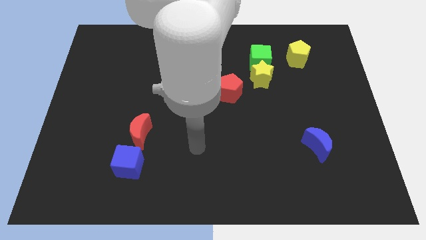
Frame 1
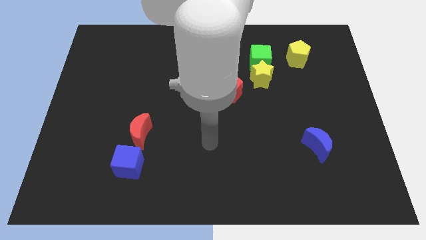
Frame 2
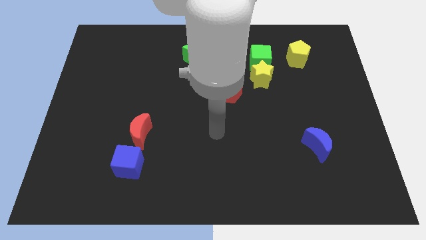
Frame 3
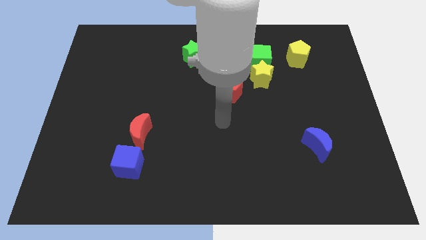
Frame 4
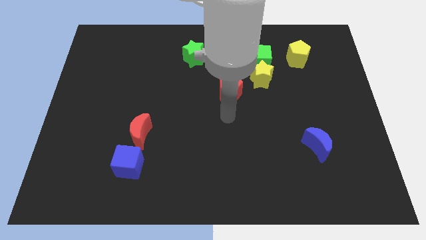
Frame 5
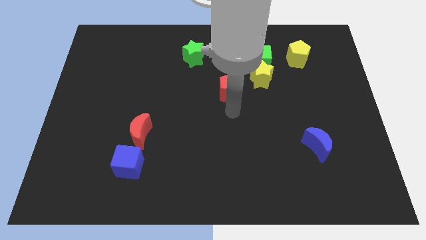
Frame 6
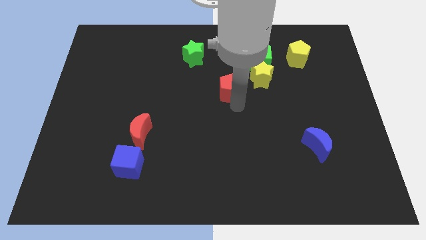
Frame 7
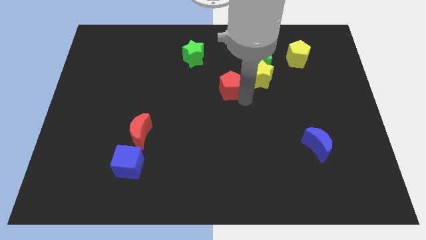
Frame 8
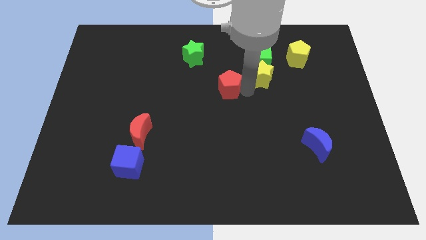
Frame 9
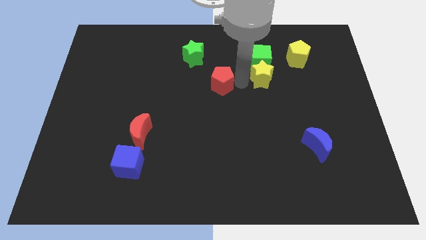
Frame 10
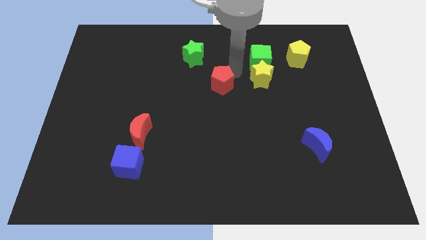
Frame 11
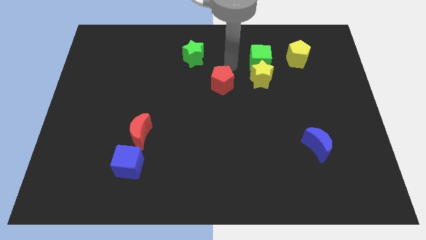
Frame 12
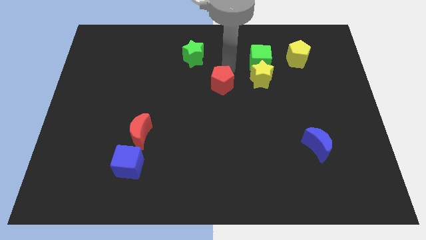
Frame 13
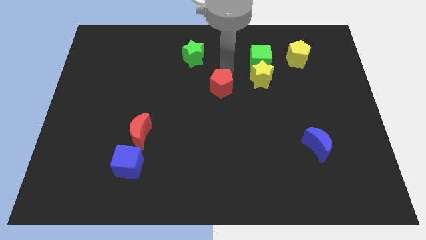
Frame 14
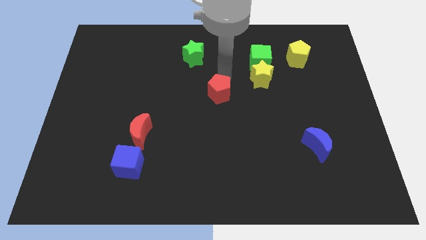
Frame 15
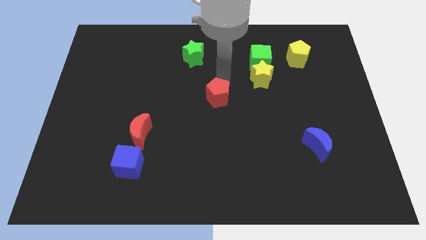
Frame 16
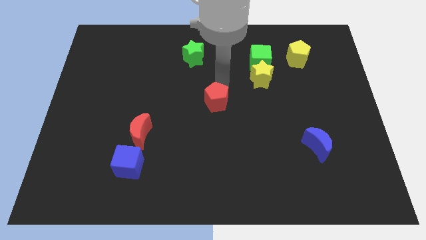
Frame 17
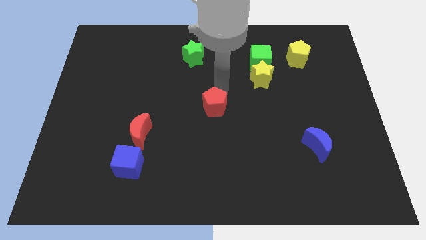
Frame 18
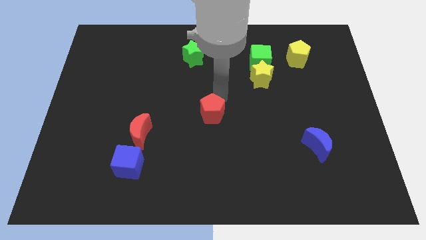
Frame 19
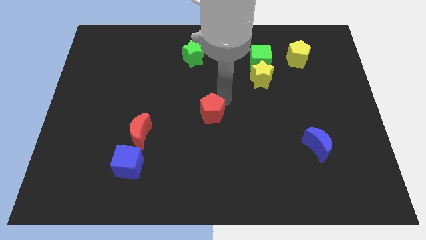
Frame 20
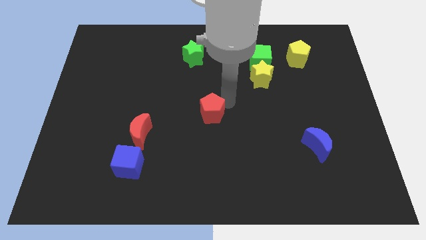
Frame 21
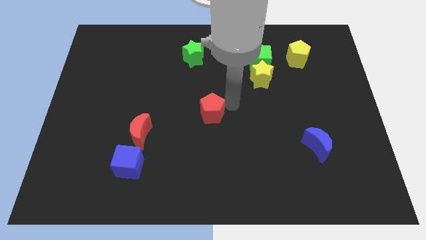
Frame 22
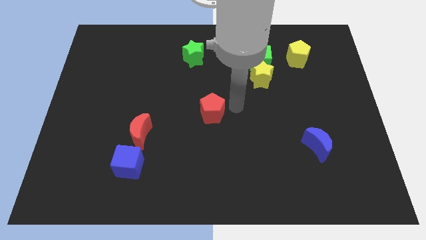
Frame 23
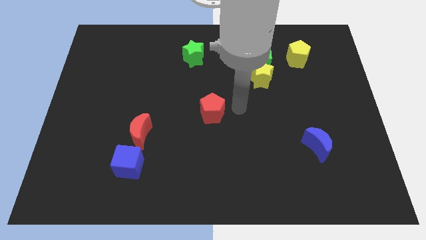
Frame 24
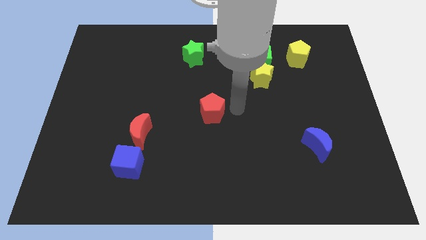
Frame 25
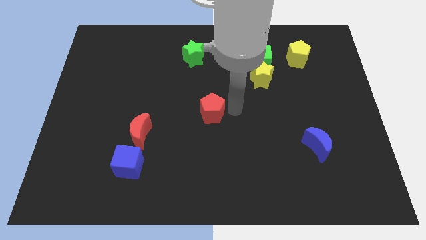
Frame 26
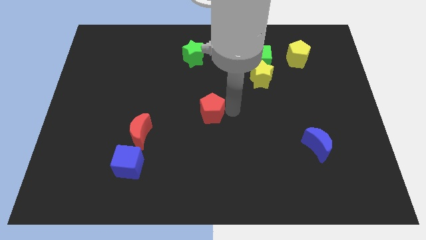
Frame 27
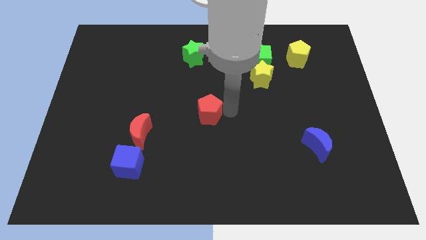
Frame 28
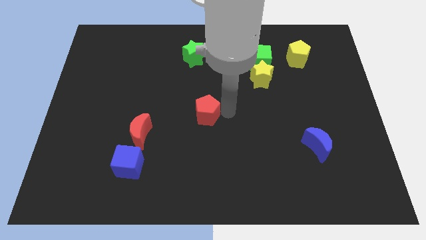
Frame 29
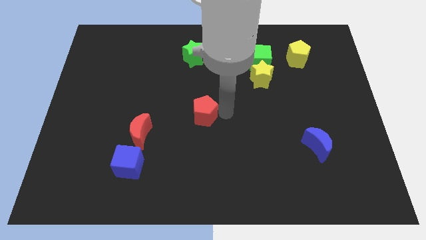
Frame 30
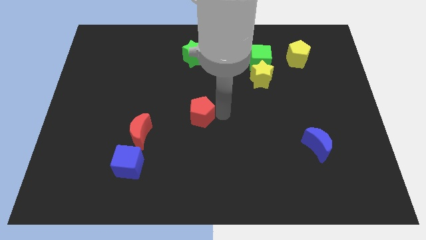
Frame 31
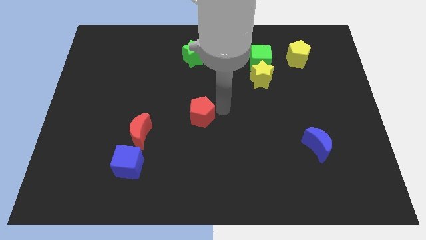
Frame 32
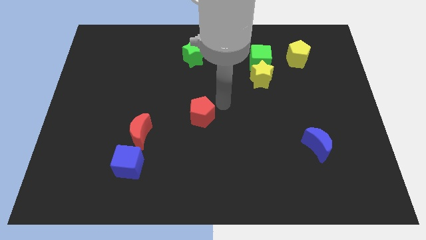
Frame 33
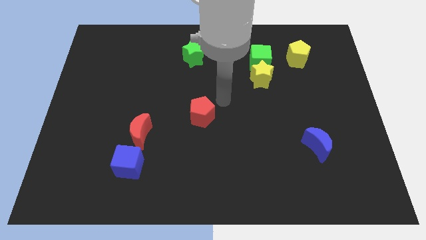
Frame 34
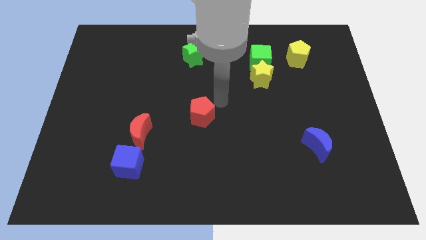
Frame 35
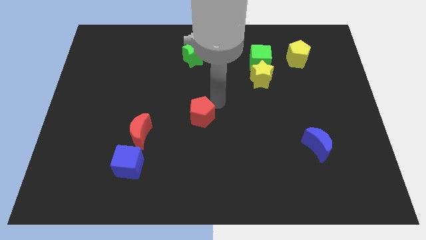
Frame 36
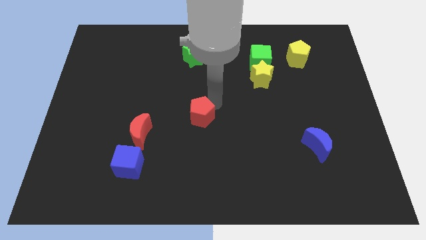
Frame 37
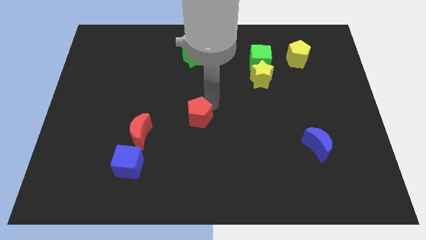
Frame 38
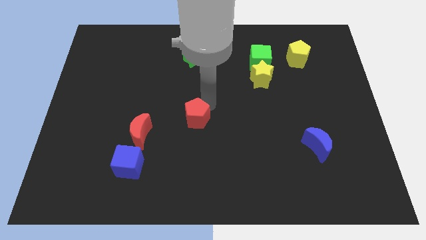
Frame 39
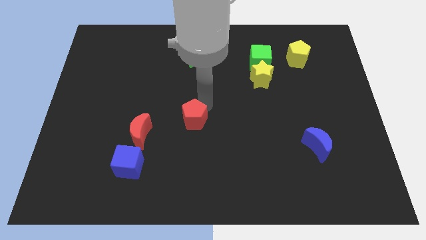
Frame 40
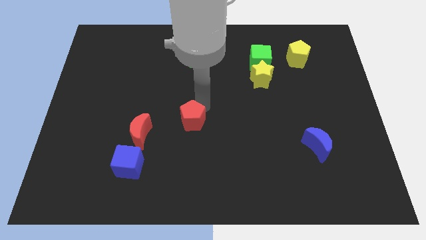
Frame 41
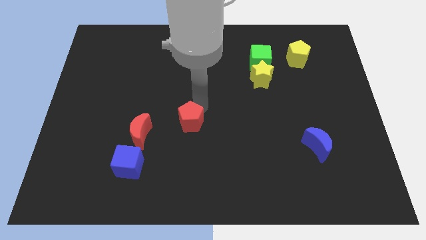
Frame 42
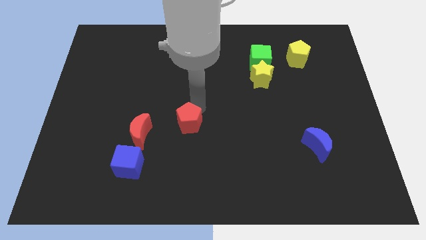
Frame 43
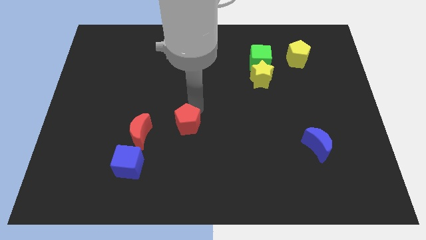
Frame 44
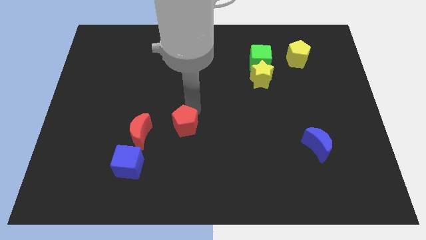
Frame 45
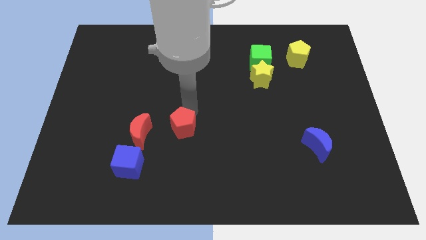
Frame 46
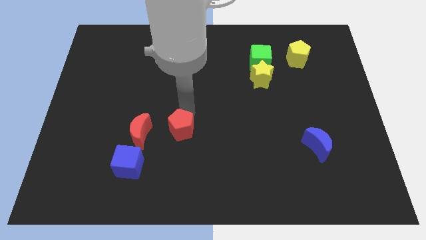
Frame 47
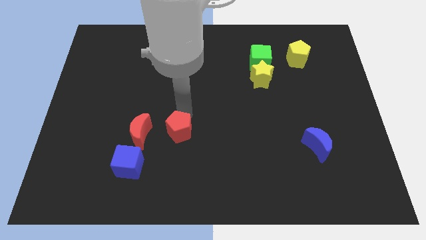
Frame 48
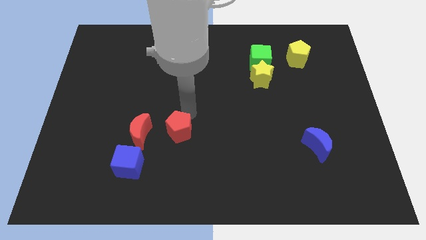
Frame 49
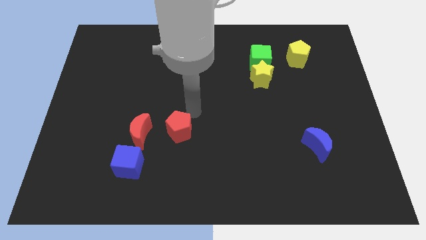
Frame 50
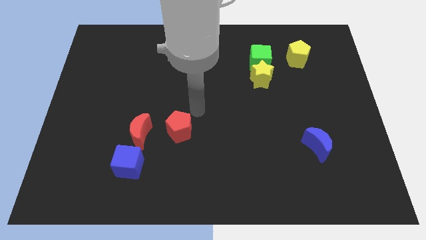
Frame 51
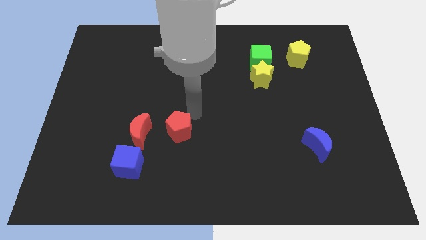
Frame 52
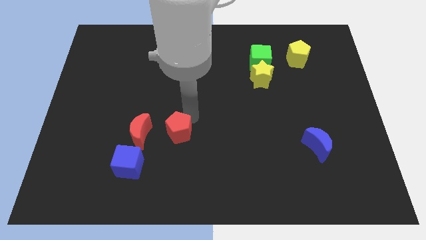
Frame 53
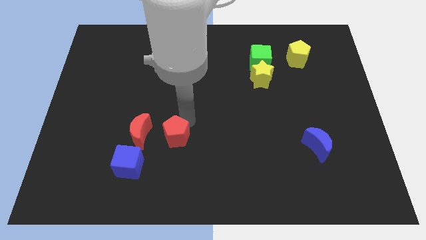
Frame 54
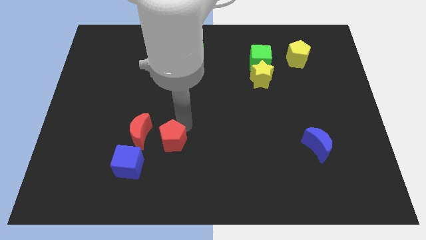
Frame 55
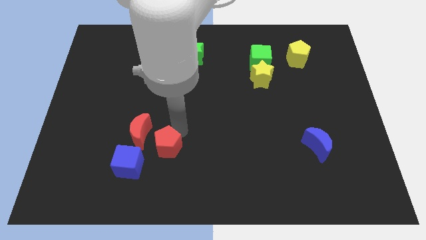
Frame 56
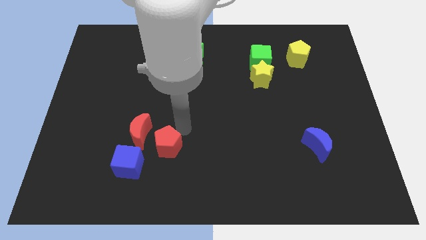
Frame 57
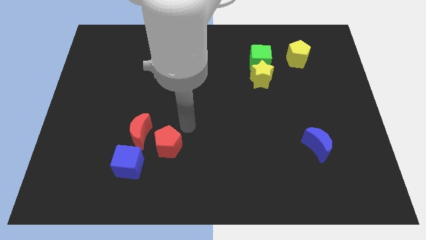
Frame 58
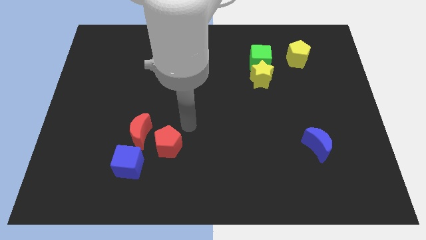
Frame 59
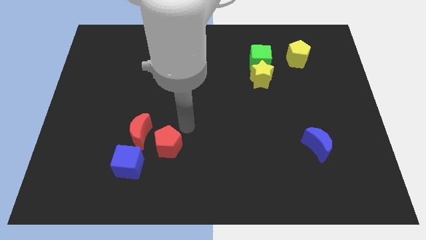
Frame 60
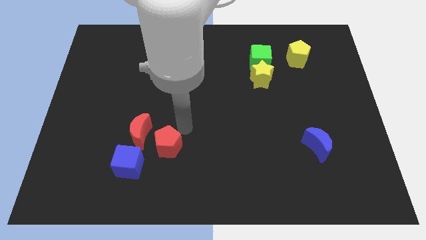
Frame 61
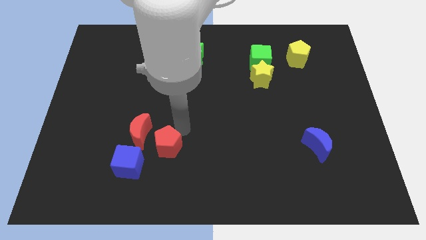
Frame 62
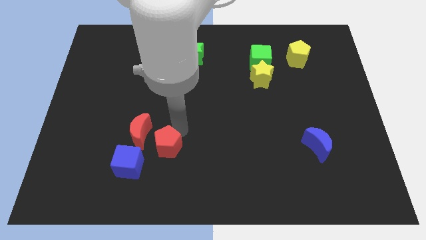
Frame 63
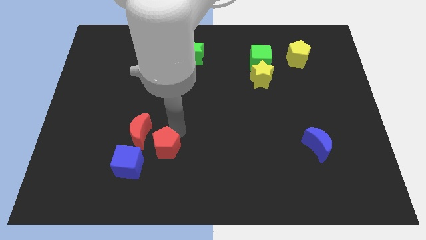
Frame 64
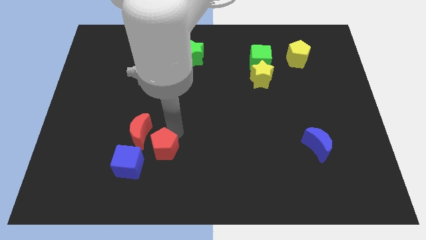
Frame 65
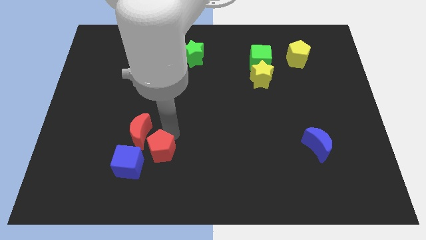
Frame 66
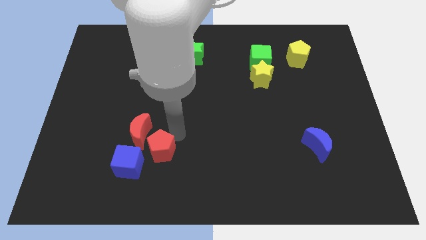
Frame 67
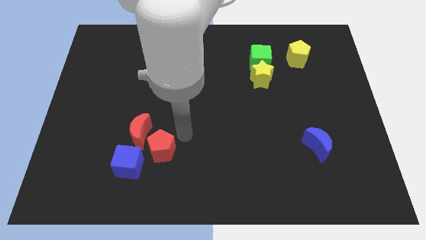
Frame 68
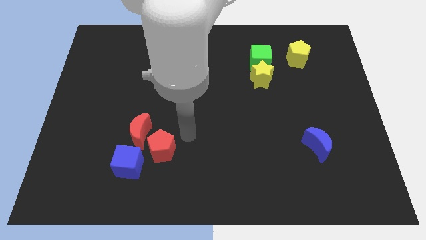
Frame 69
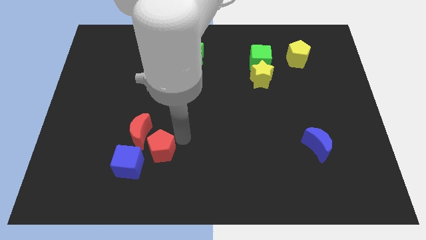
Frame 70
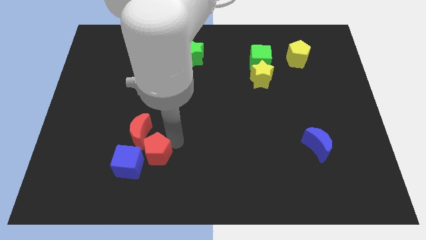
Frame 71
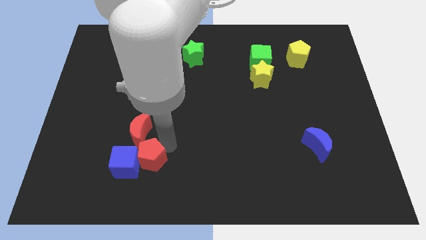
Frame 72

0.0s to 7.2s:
put the red pentagon close to the blue cube
